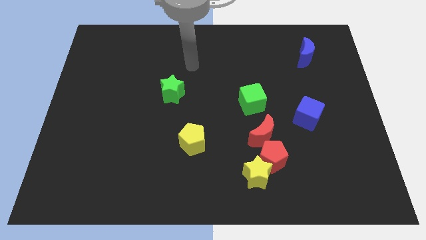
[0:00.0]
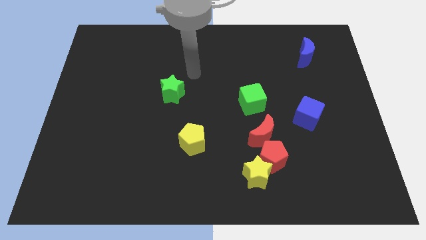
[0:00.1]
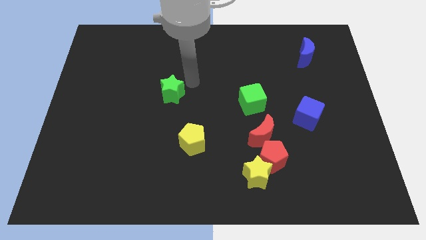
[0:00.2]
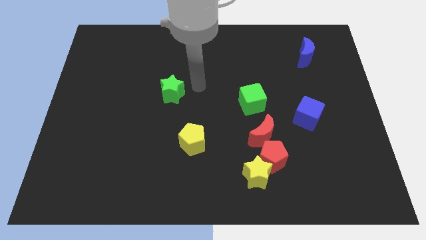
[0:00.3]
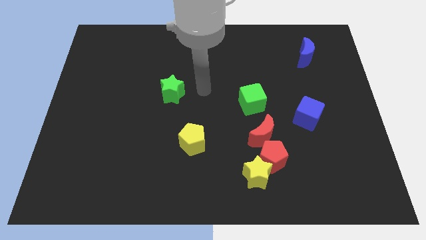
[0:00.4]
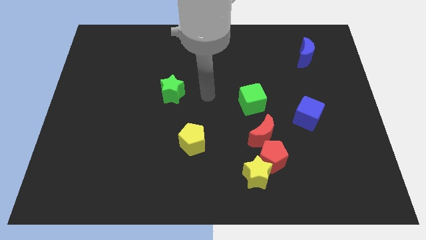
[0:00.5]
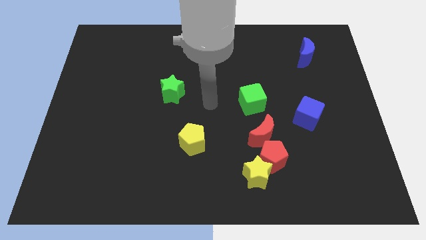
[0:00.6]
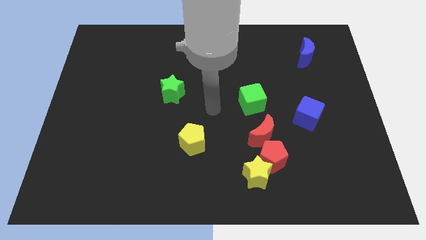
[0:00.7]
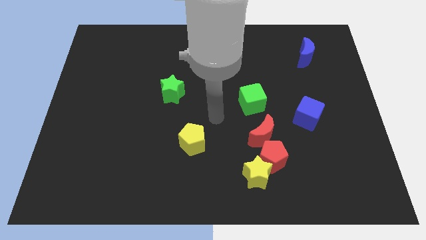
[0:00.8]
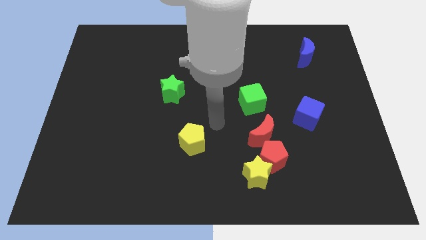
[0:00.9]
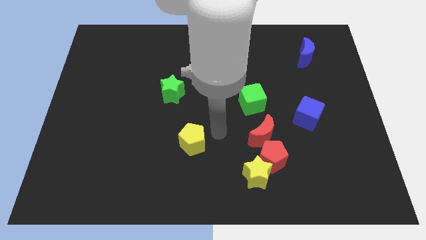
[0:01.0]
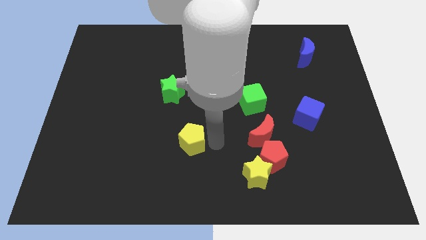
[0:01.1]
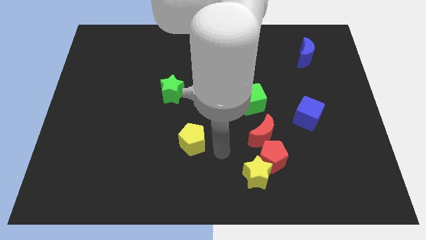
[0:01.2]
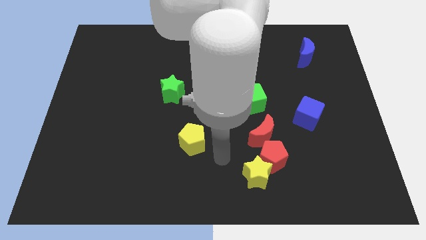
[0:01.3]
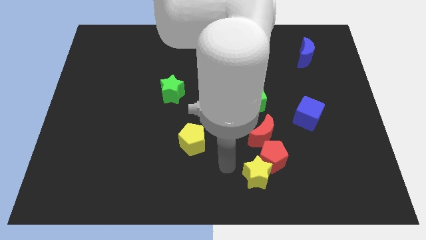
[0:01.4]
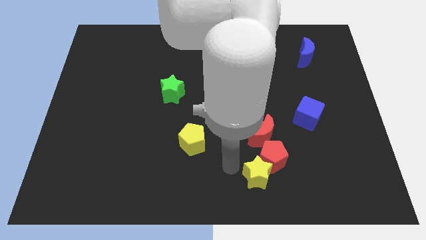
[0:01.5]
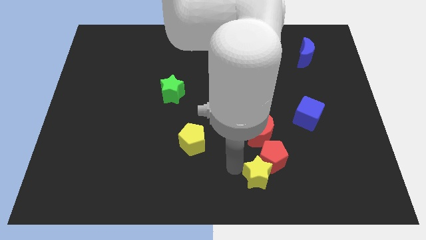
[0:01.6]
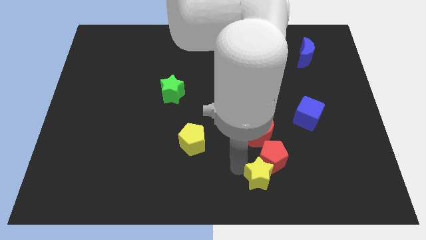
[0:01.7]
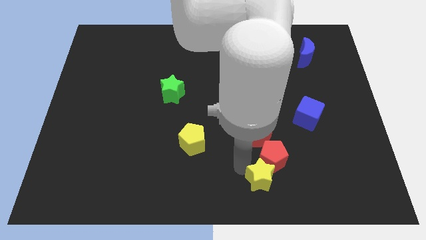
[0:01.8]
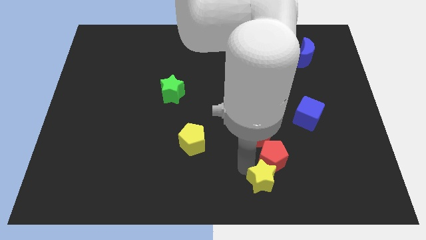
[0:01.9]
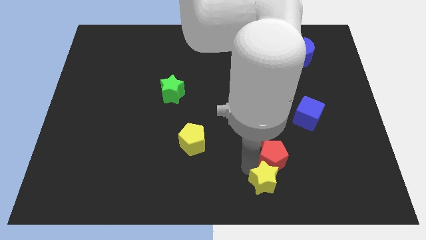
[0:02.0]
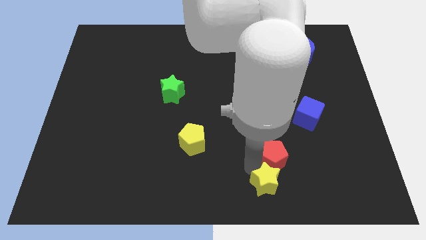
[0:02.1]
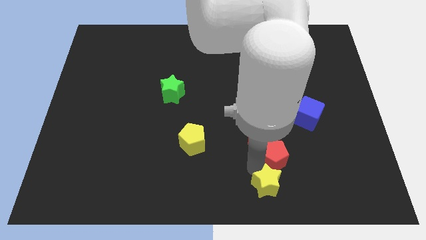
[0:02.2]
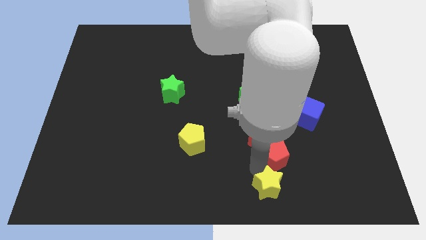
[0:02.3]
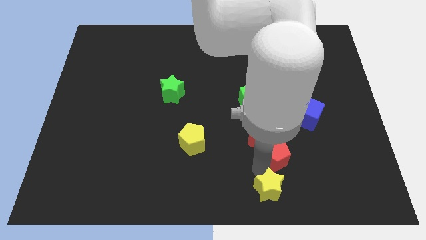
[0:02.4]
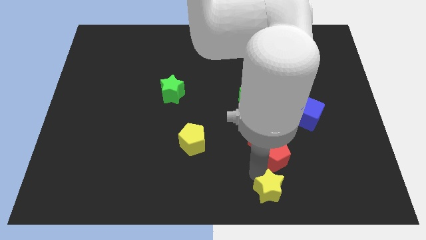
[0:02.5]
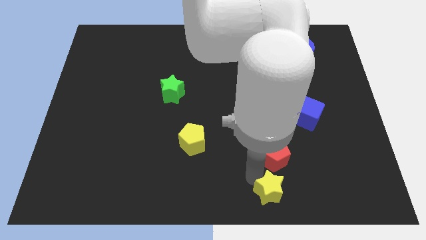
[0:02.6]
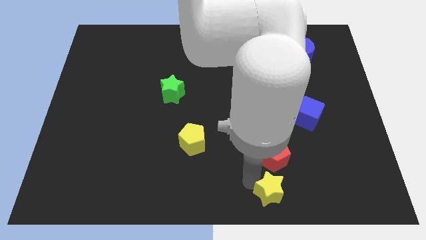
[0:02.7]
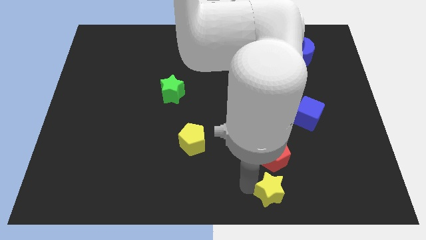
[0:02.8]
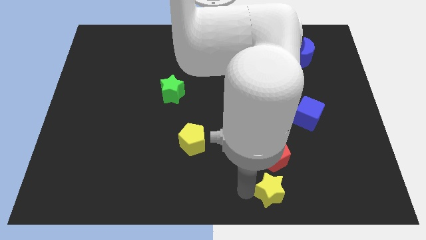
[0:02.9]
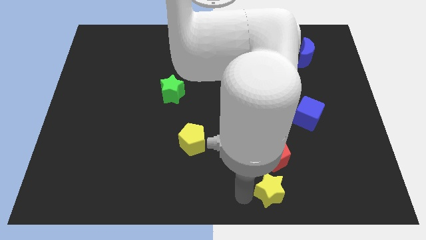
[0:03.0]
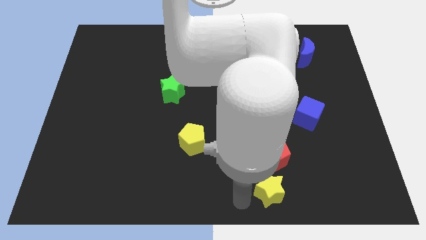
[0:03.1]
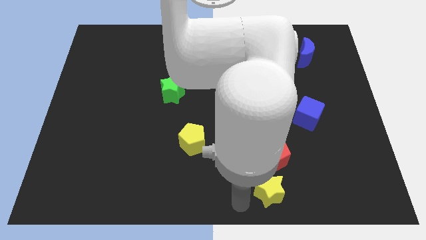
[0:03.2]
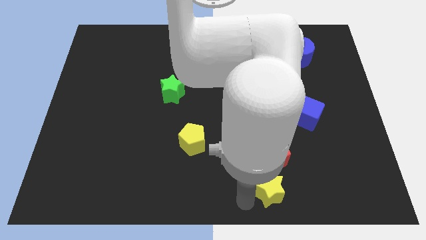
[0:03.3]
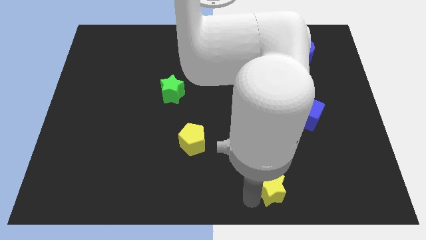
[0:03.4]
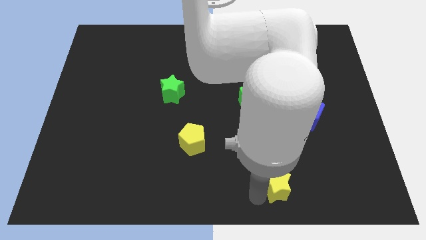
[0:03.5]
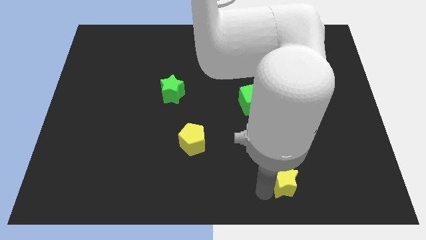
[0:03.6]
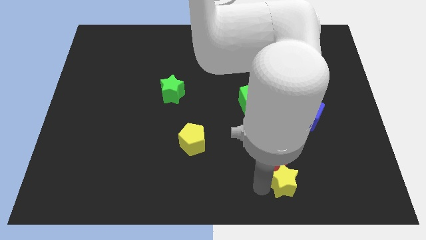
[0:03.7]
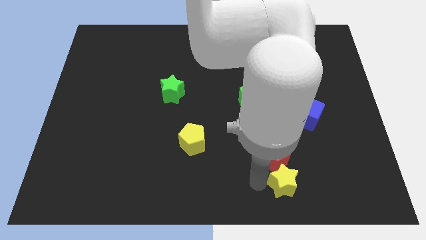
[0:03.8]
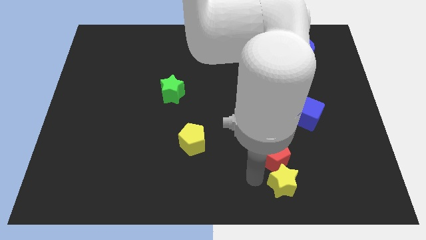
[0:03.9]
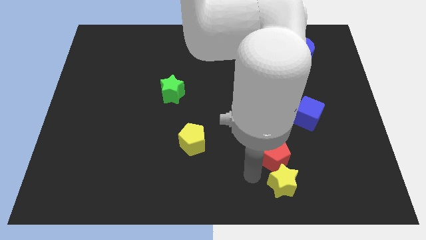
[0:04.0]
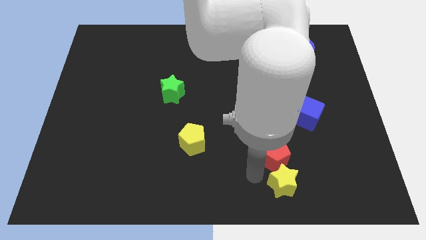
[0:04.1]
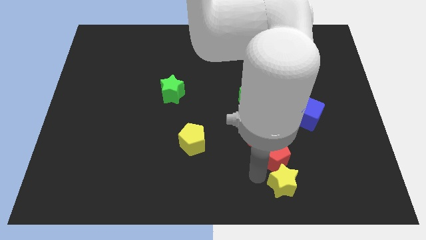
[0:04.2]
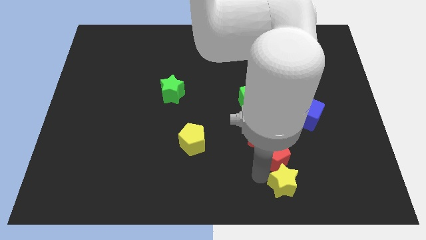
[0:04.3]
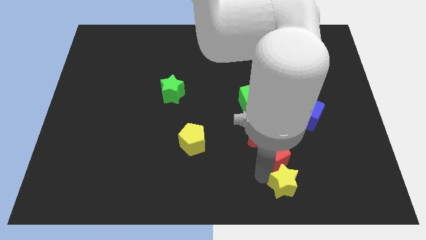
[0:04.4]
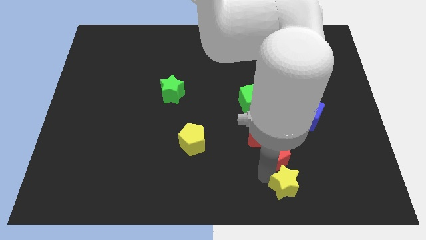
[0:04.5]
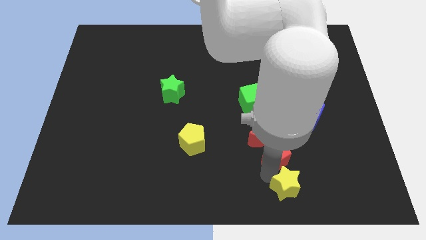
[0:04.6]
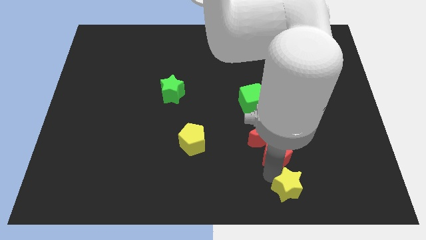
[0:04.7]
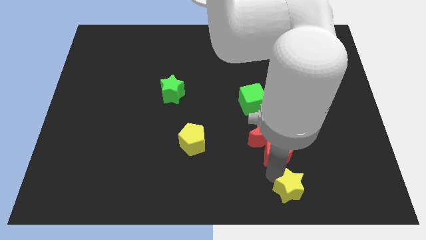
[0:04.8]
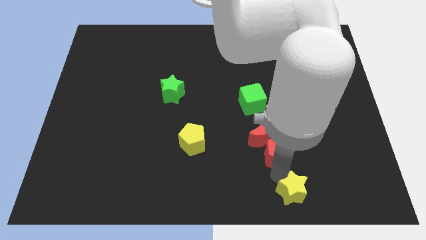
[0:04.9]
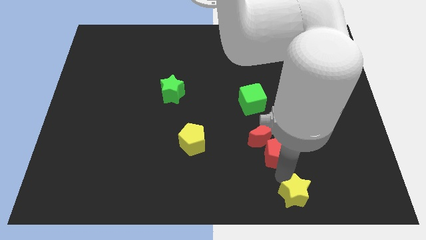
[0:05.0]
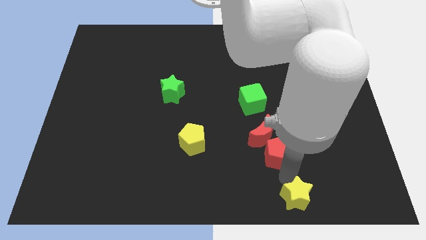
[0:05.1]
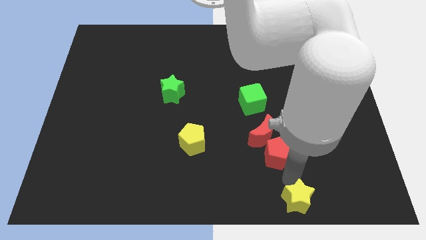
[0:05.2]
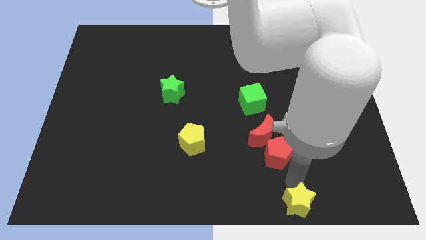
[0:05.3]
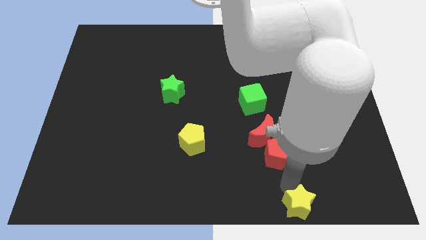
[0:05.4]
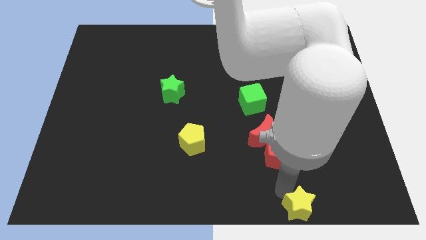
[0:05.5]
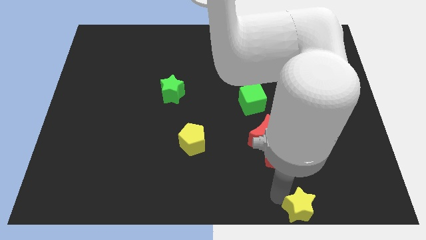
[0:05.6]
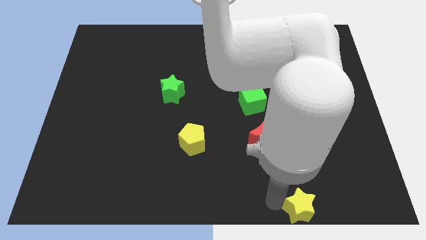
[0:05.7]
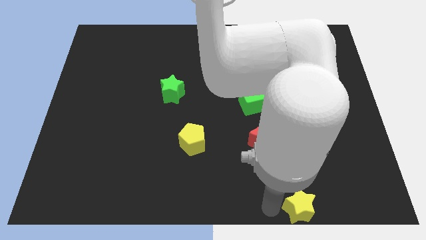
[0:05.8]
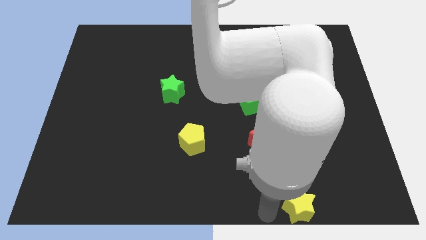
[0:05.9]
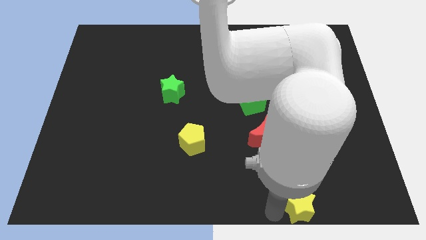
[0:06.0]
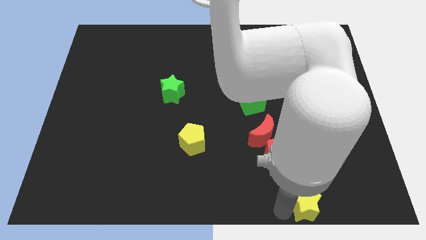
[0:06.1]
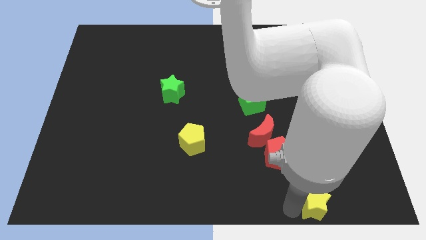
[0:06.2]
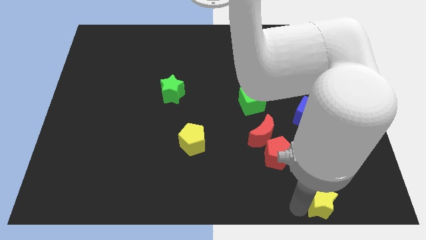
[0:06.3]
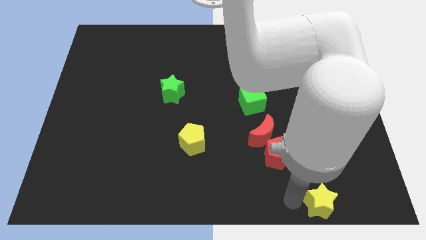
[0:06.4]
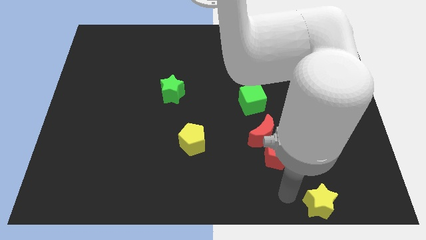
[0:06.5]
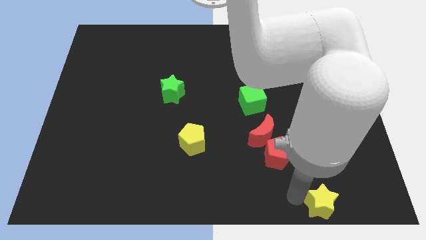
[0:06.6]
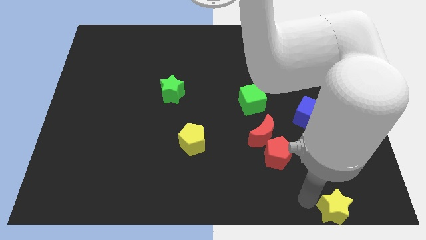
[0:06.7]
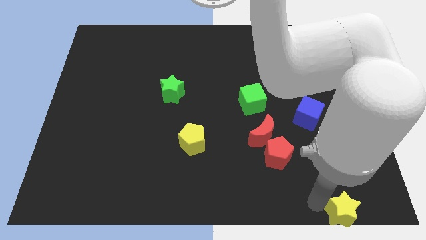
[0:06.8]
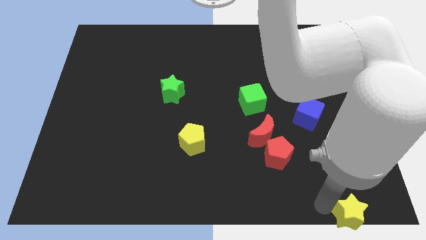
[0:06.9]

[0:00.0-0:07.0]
push the yellow star to the bottom right of the board
